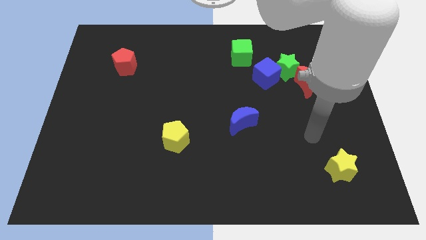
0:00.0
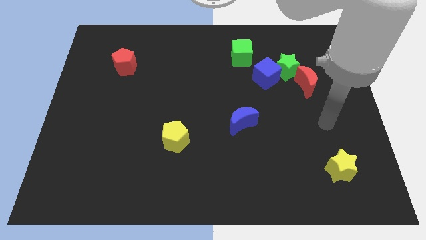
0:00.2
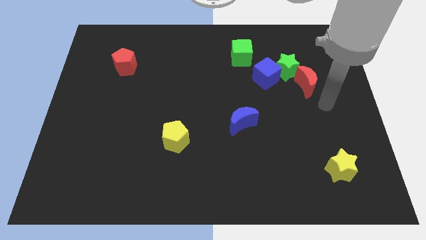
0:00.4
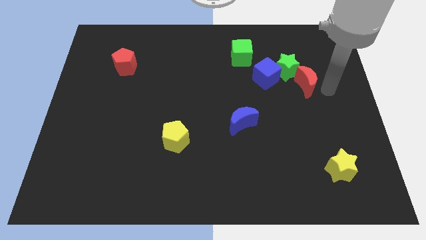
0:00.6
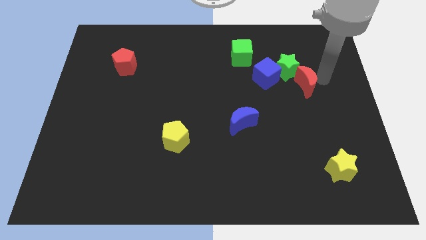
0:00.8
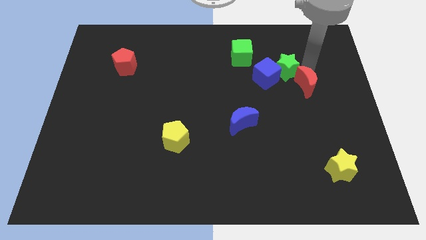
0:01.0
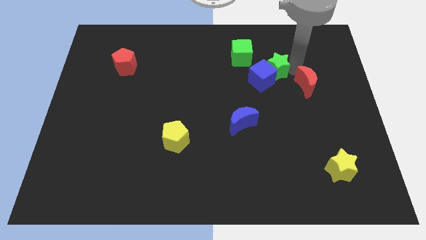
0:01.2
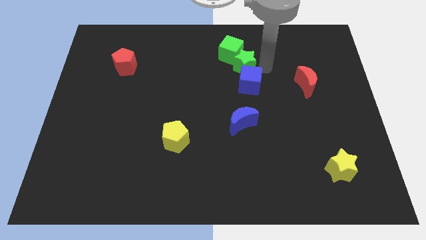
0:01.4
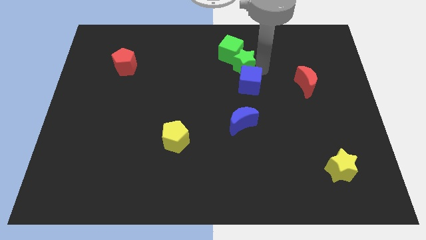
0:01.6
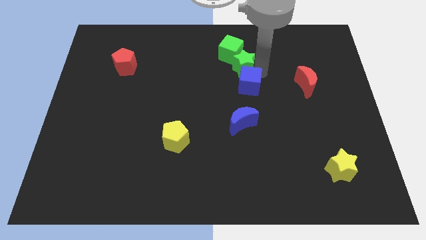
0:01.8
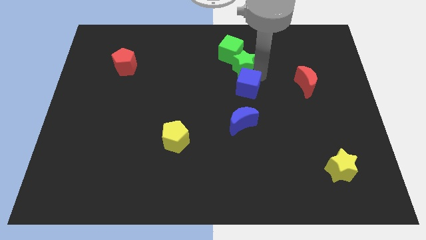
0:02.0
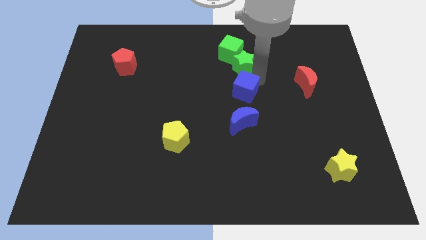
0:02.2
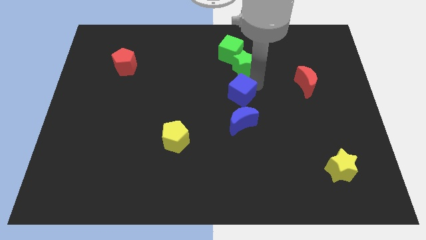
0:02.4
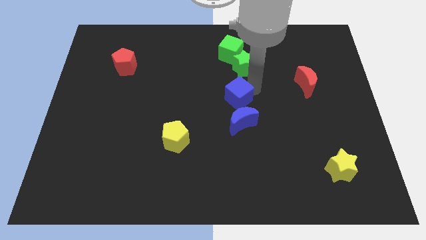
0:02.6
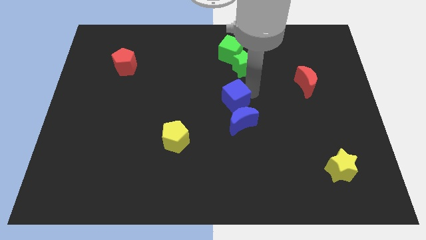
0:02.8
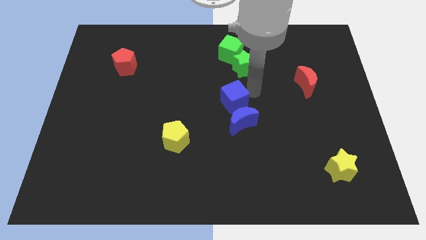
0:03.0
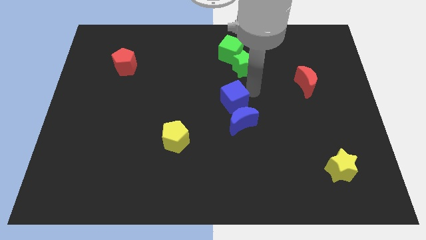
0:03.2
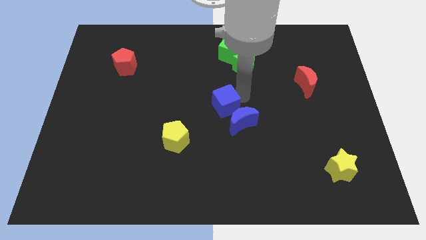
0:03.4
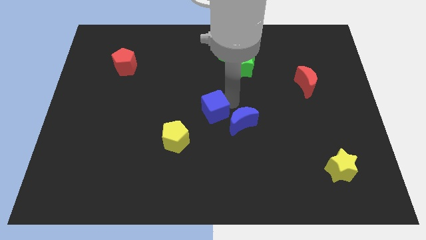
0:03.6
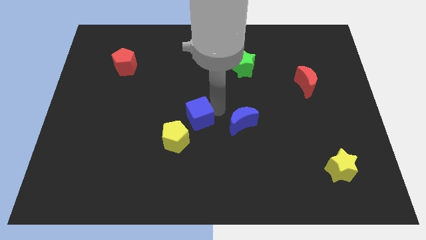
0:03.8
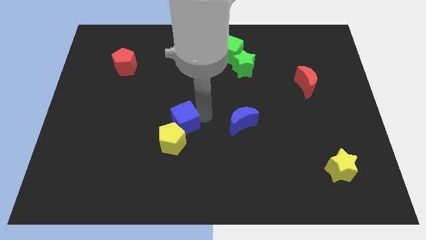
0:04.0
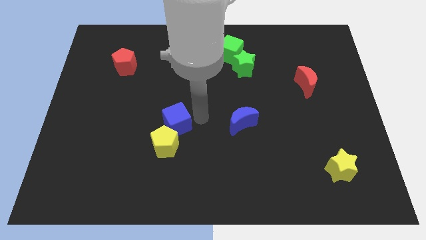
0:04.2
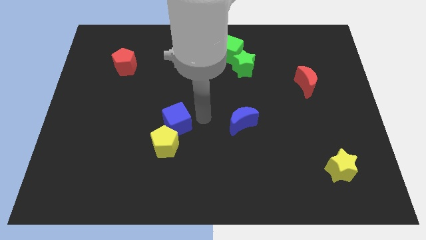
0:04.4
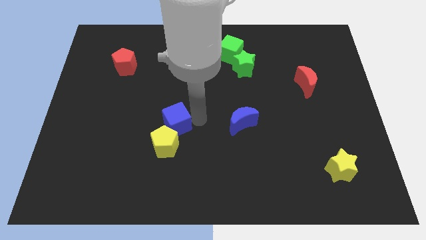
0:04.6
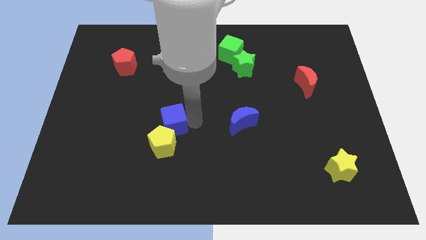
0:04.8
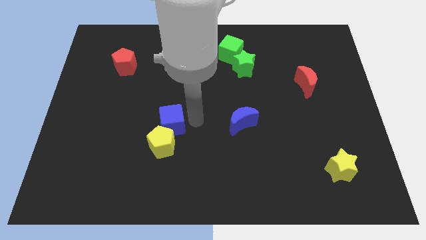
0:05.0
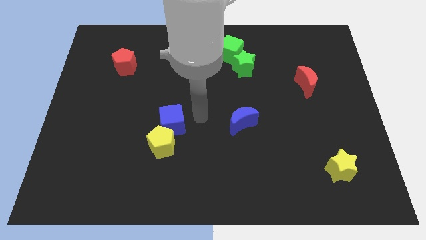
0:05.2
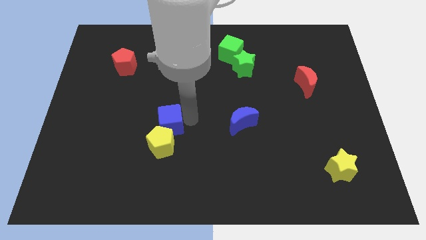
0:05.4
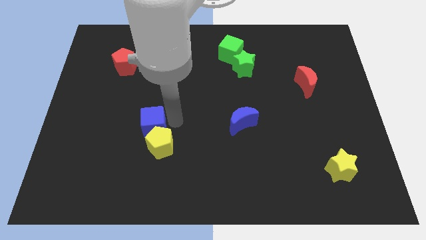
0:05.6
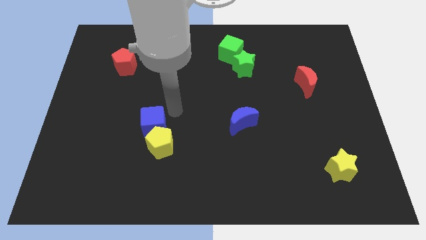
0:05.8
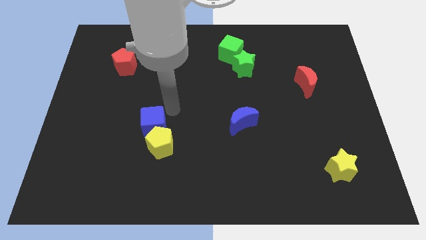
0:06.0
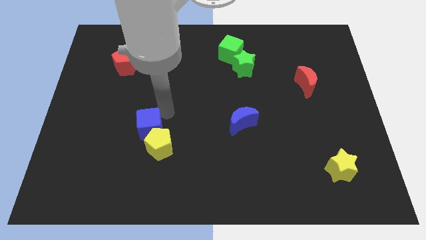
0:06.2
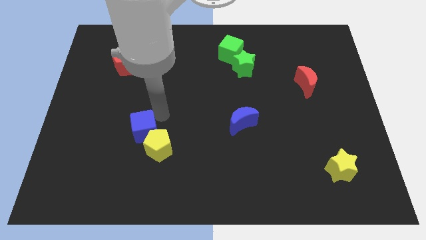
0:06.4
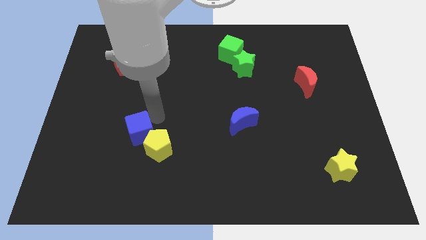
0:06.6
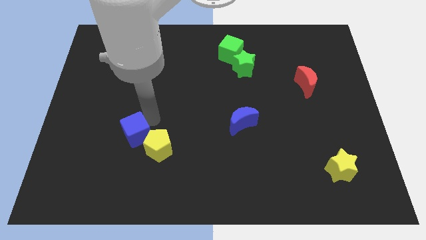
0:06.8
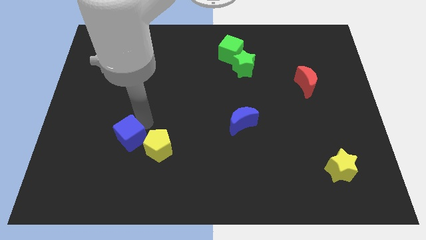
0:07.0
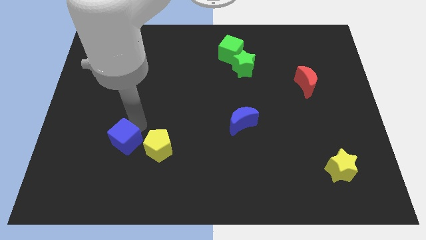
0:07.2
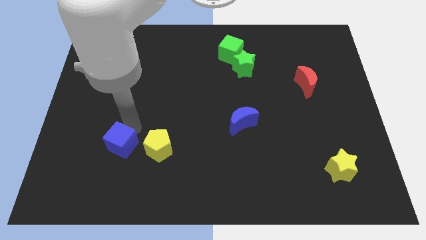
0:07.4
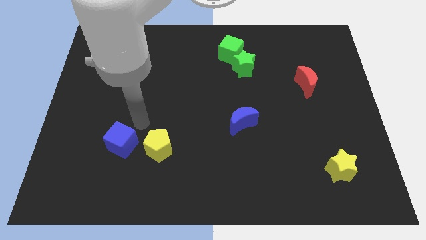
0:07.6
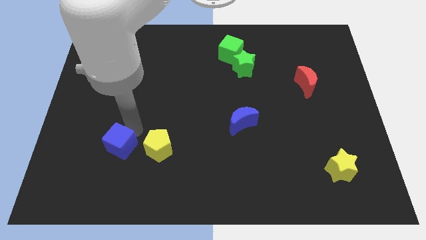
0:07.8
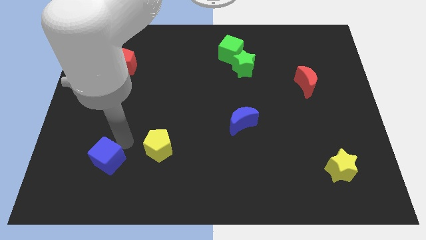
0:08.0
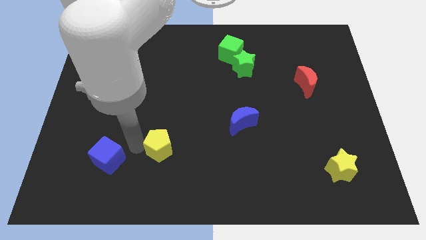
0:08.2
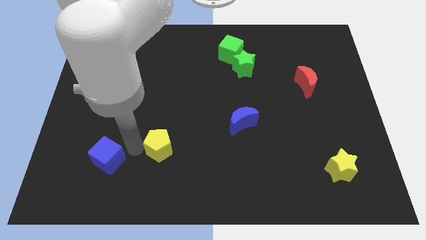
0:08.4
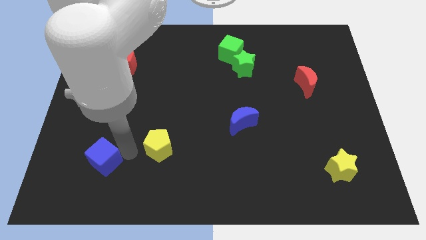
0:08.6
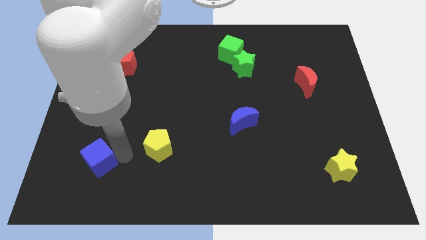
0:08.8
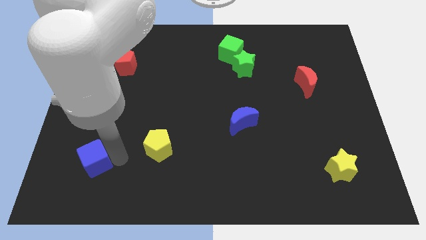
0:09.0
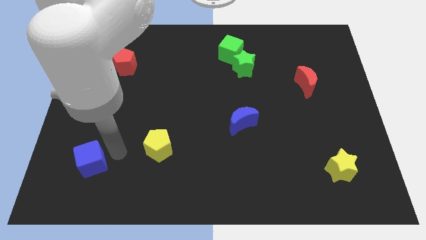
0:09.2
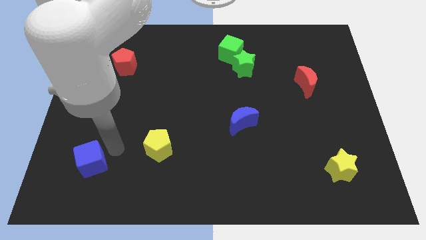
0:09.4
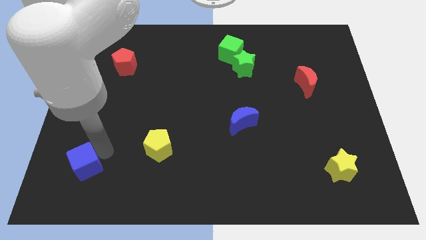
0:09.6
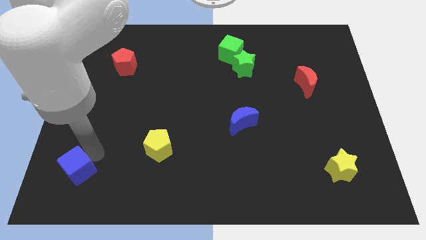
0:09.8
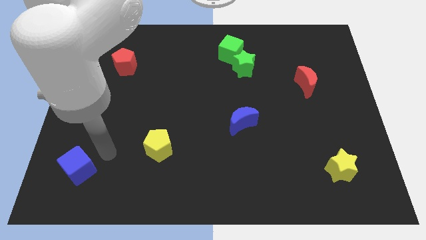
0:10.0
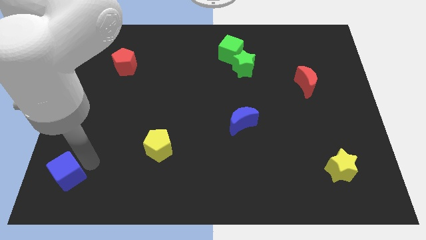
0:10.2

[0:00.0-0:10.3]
slide the blue cube to the bottom left of the board
